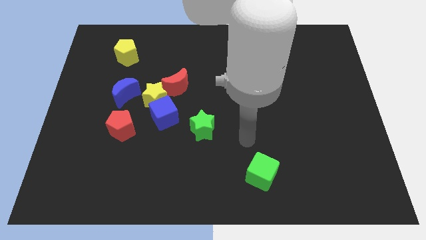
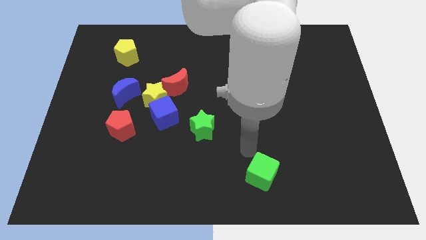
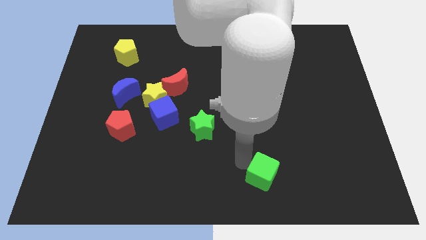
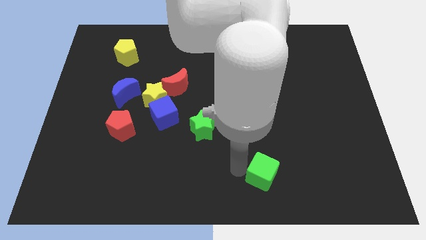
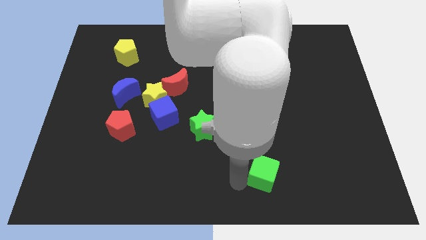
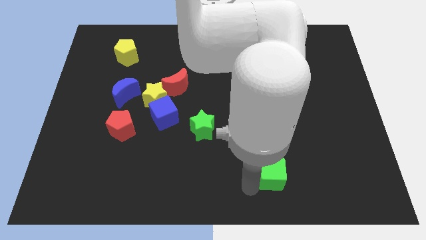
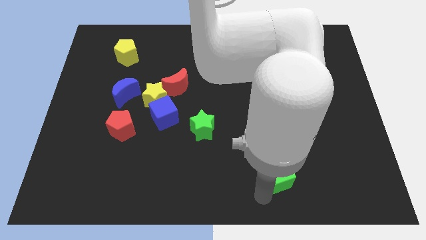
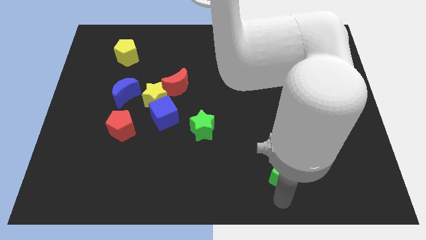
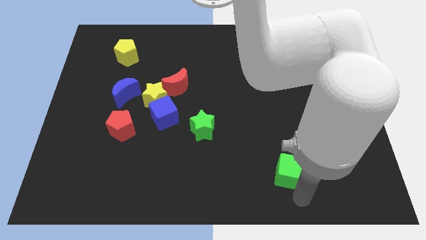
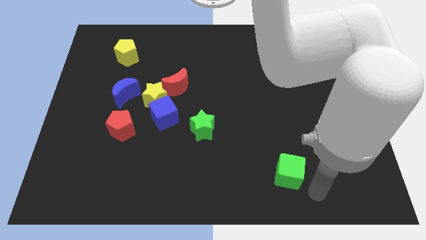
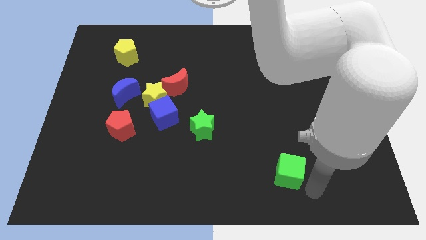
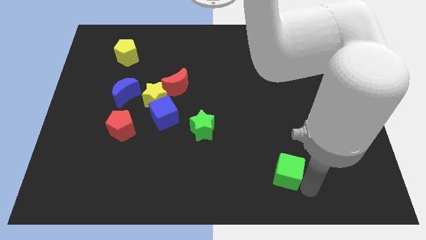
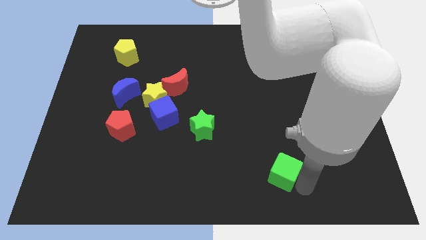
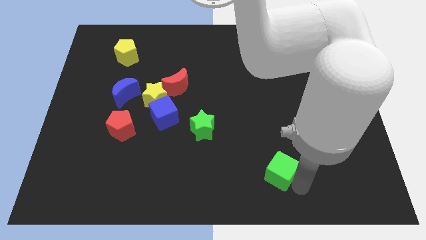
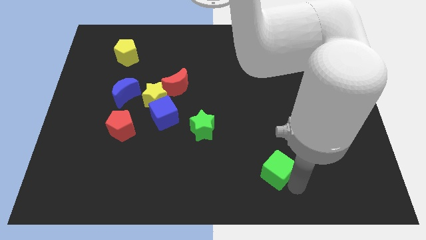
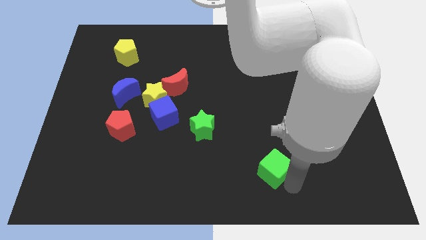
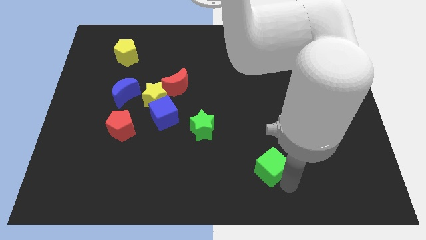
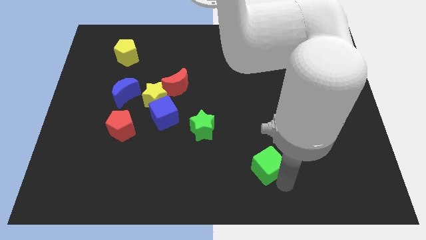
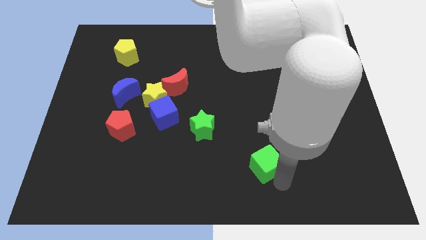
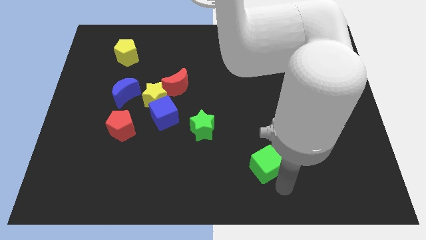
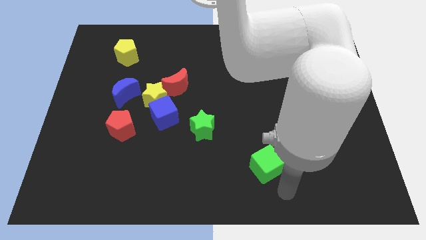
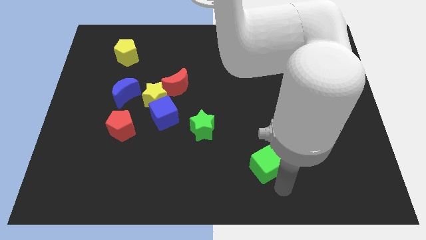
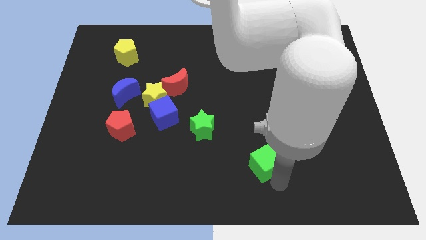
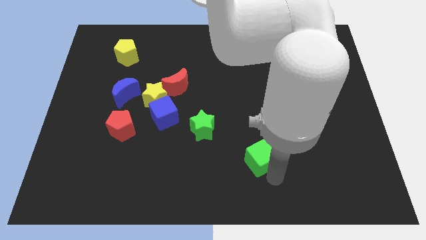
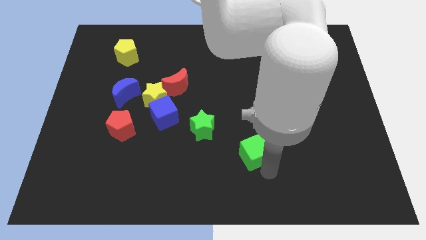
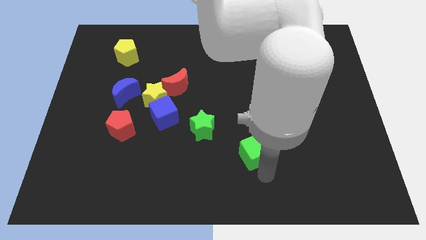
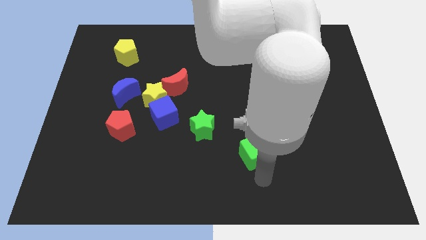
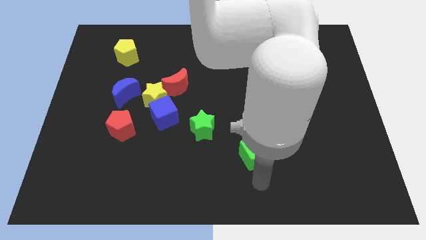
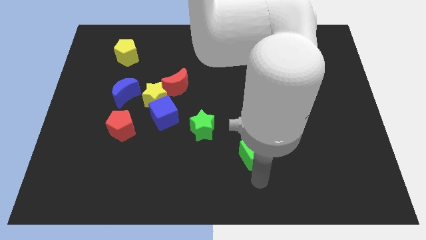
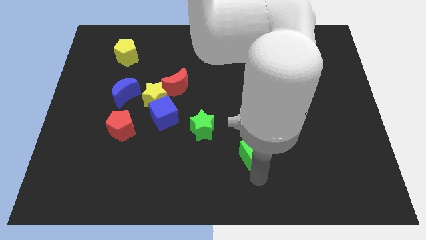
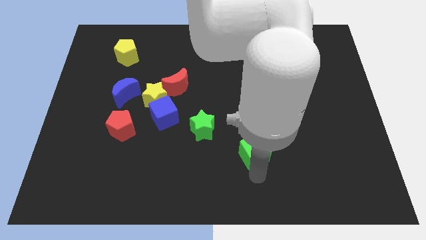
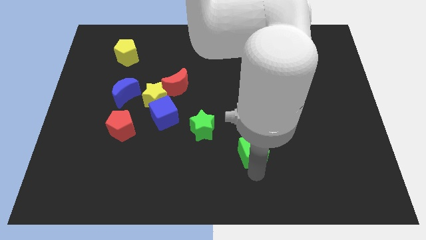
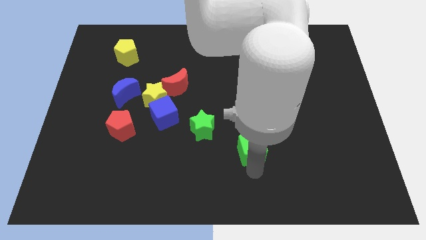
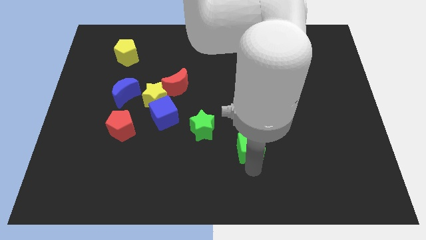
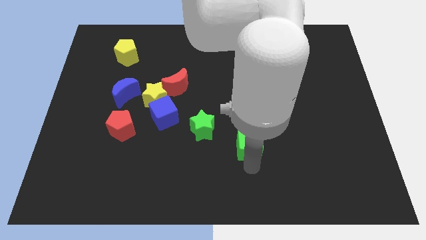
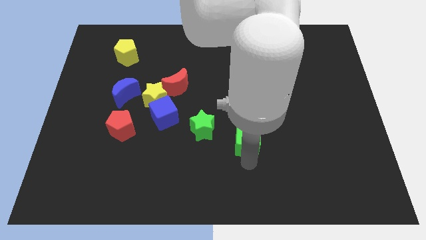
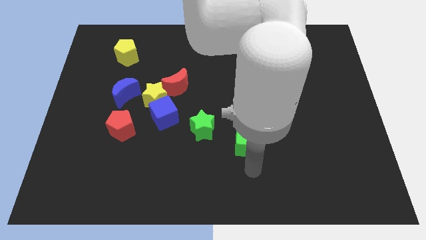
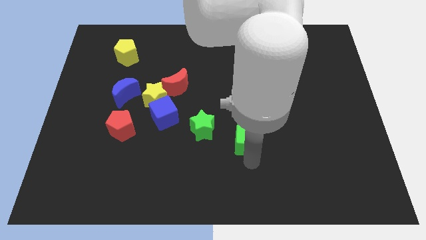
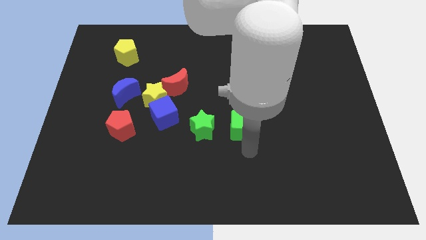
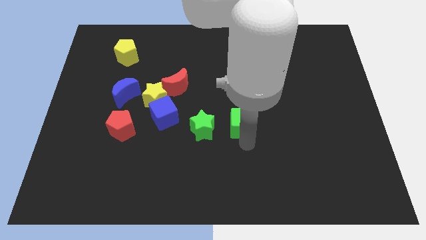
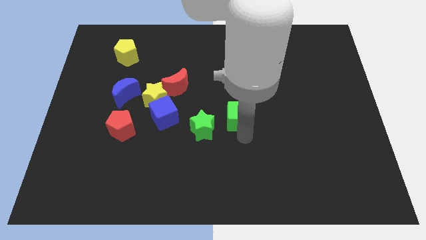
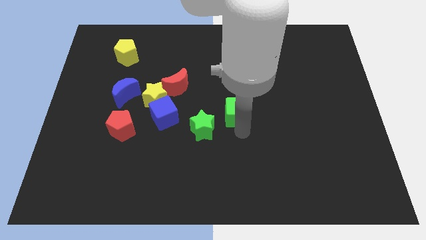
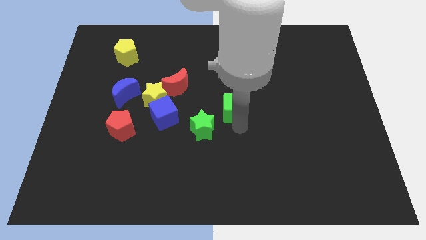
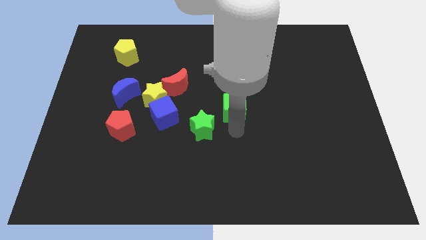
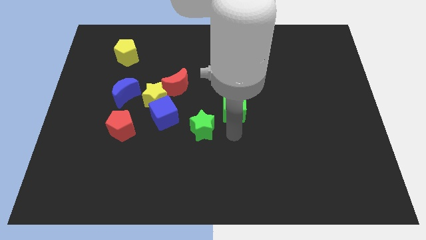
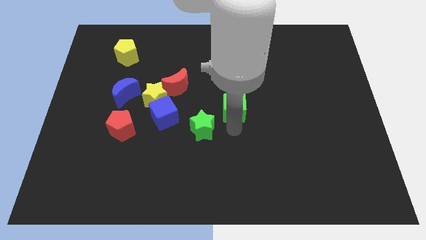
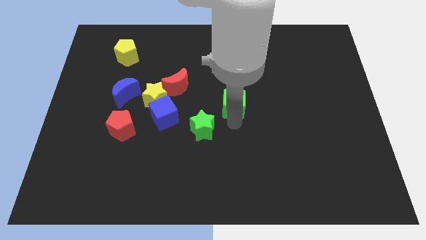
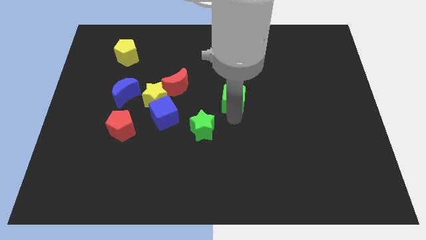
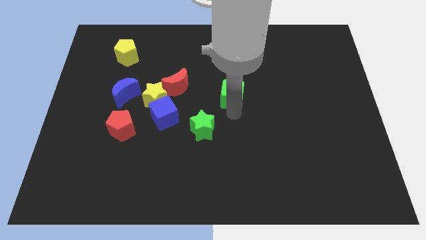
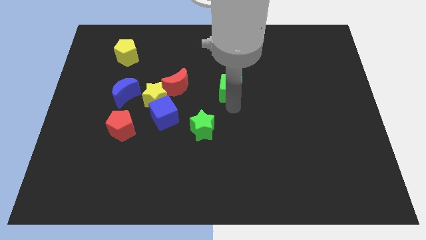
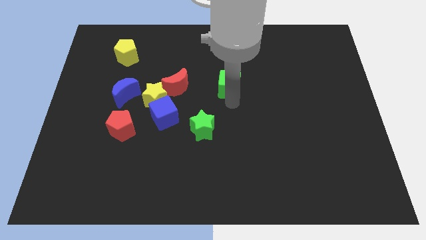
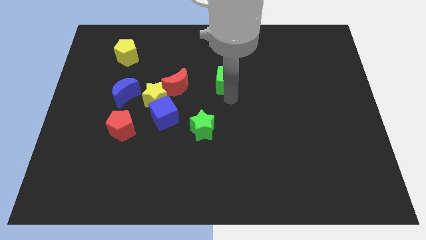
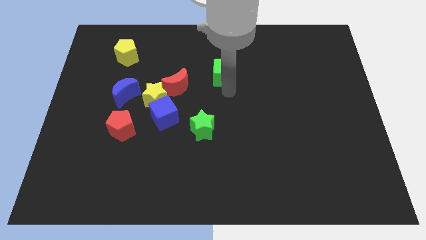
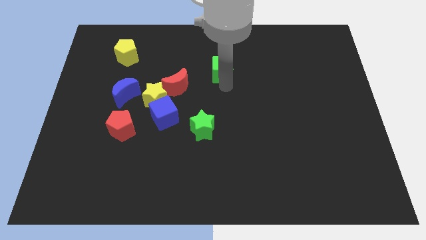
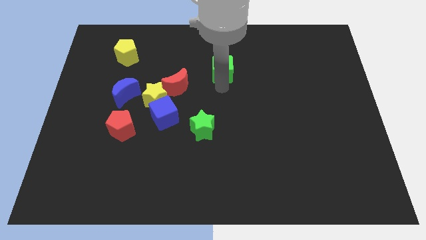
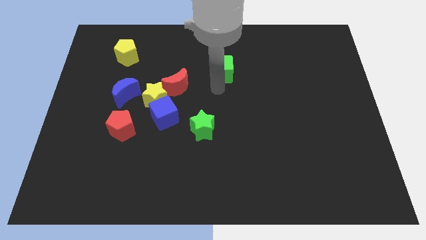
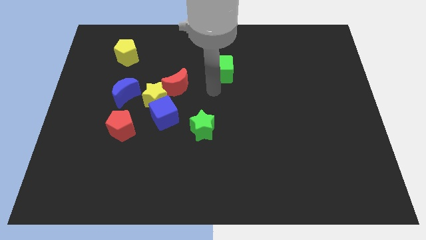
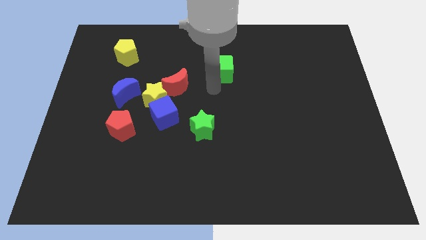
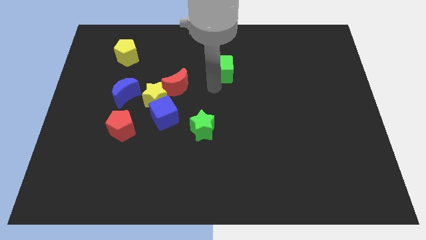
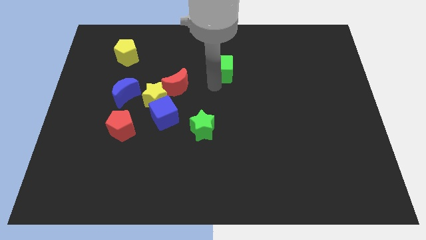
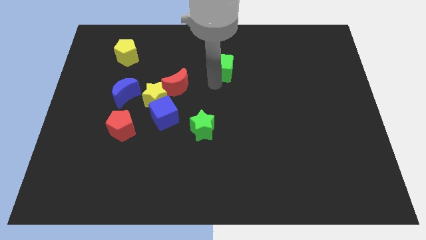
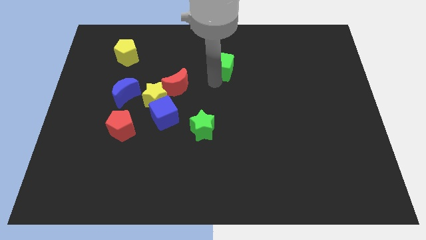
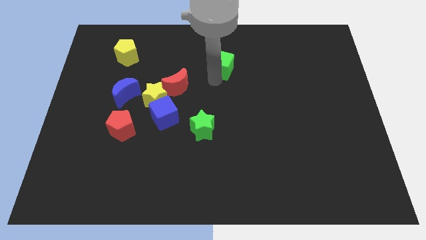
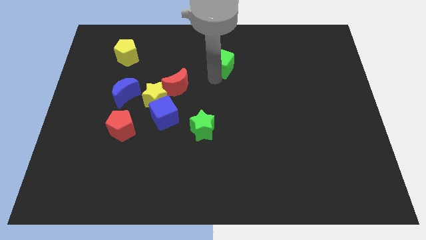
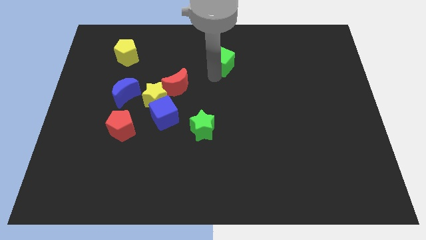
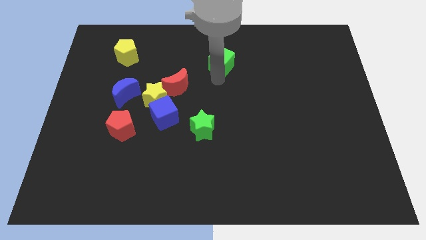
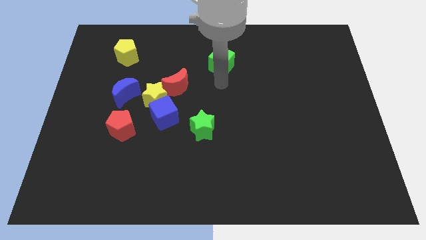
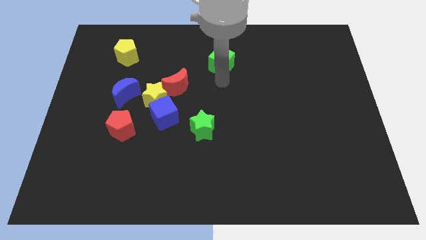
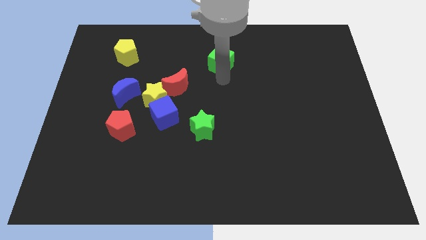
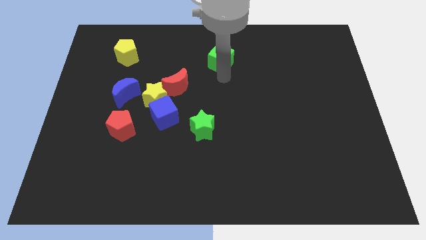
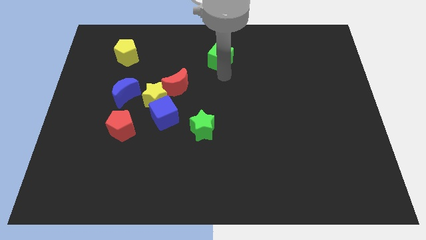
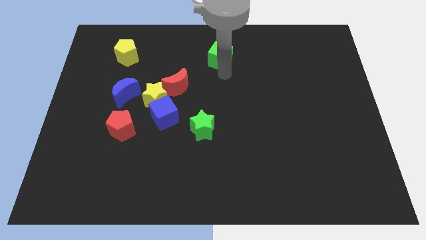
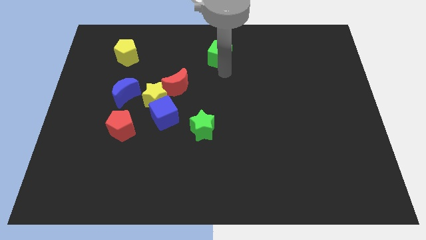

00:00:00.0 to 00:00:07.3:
put the green cube to the top side
